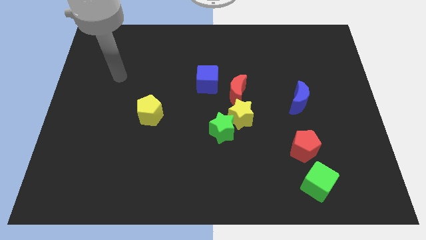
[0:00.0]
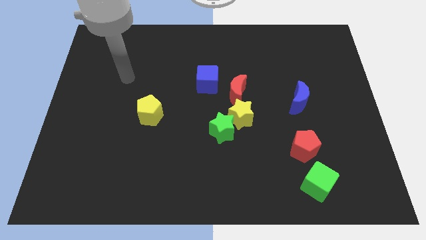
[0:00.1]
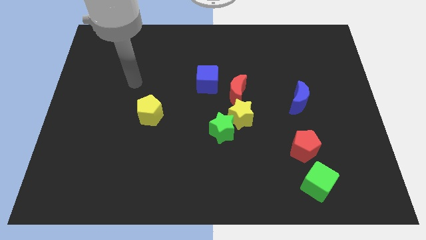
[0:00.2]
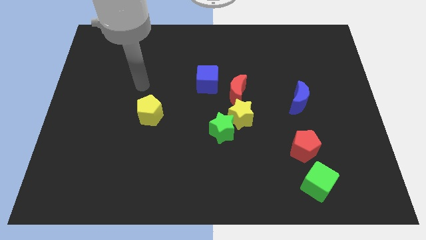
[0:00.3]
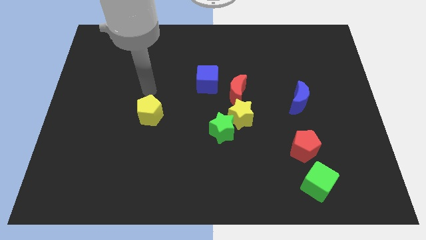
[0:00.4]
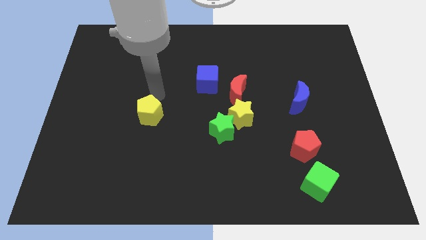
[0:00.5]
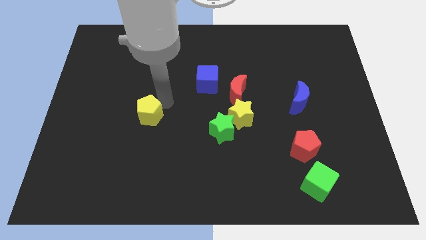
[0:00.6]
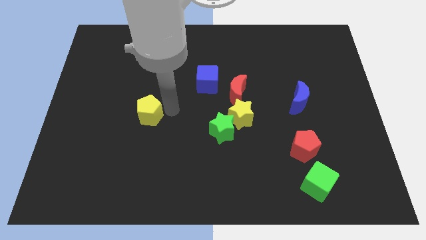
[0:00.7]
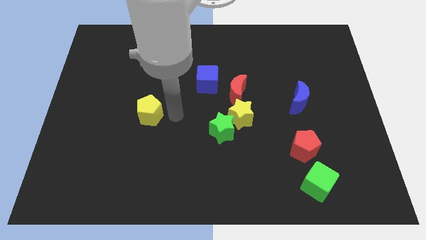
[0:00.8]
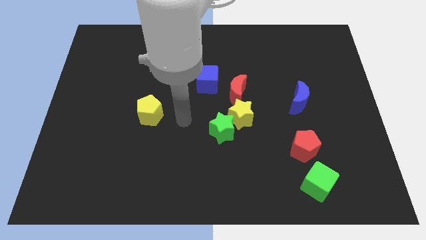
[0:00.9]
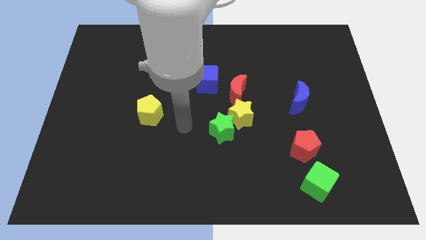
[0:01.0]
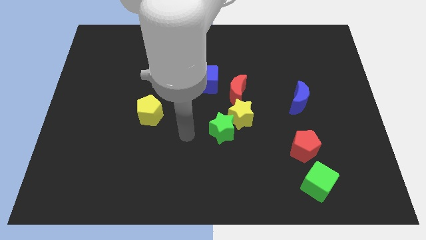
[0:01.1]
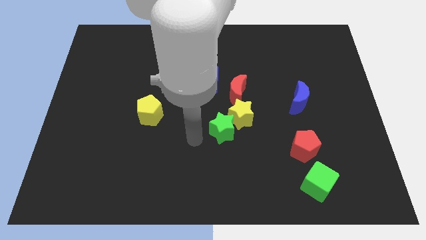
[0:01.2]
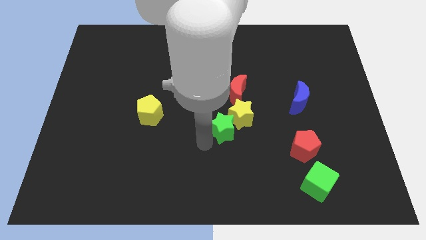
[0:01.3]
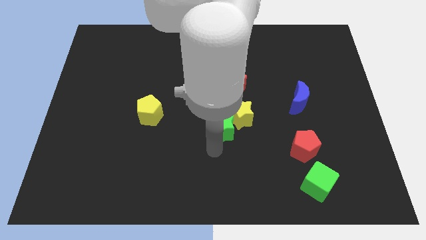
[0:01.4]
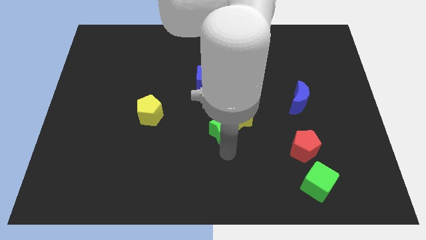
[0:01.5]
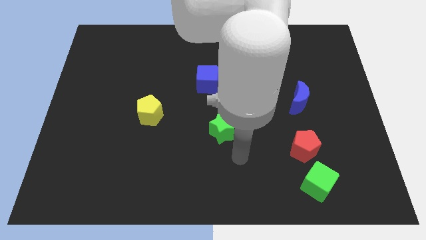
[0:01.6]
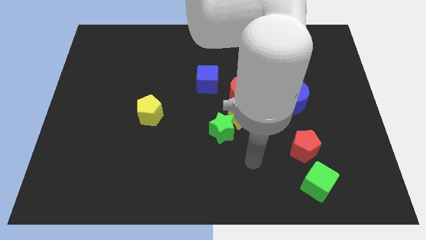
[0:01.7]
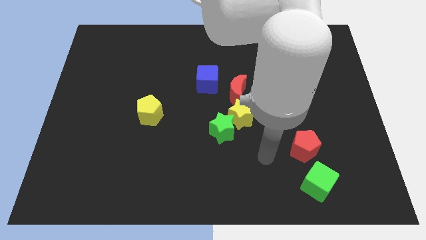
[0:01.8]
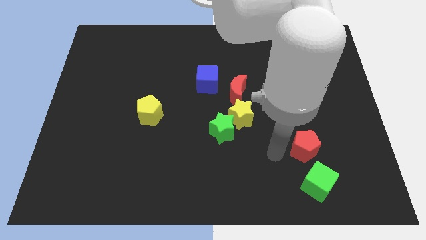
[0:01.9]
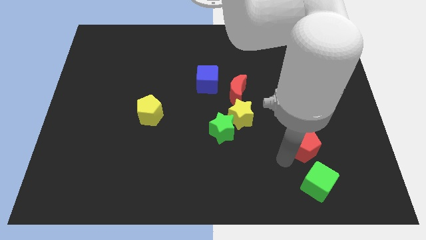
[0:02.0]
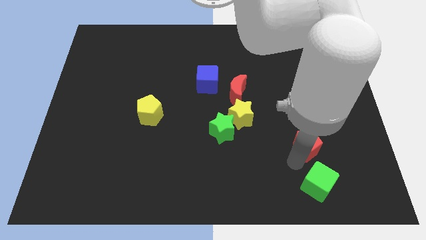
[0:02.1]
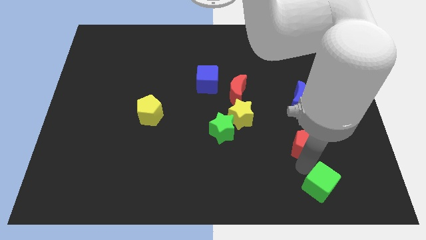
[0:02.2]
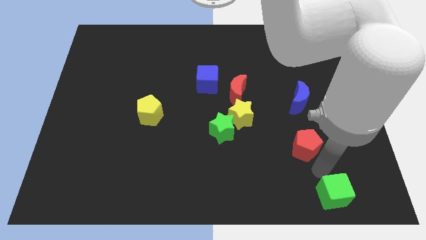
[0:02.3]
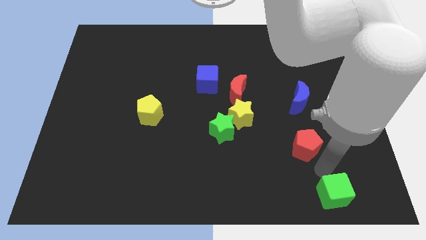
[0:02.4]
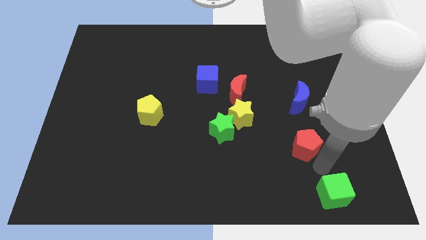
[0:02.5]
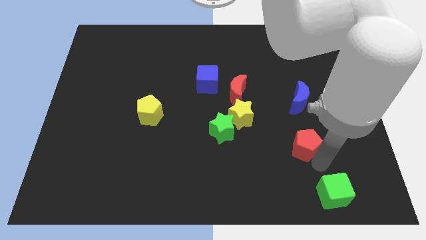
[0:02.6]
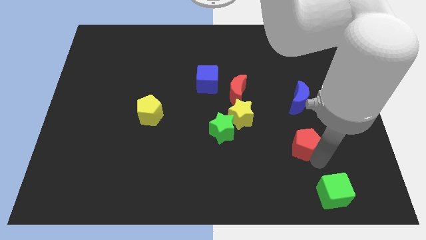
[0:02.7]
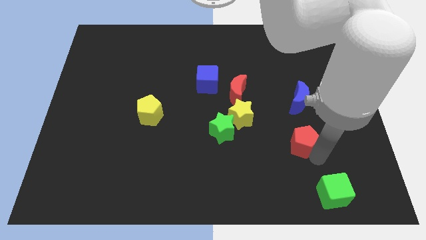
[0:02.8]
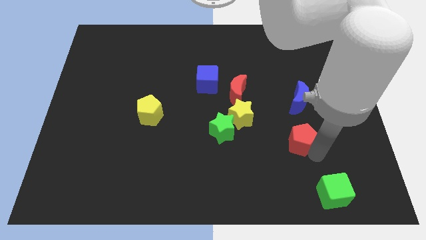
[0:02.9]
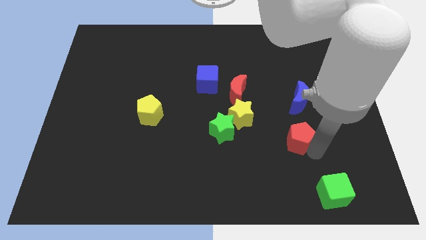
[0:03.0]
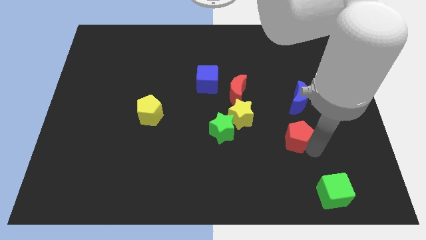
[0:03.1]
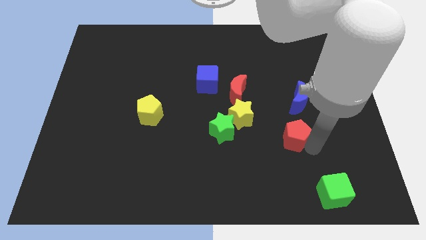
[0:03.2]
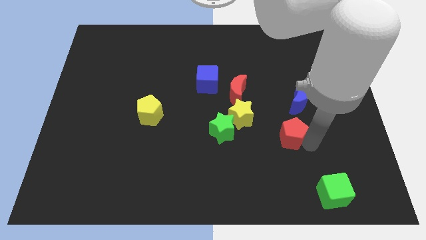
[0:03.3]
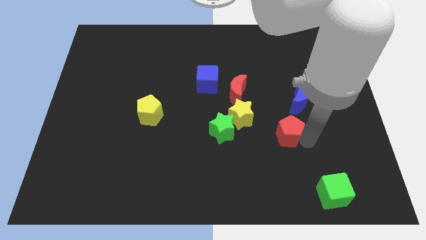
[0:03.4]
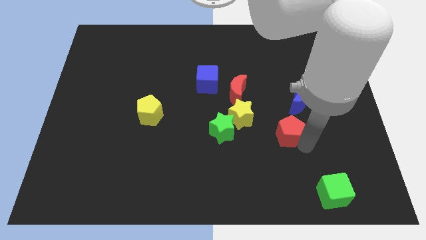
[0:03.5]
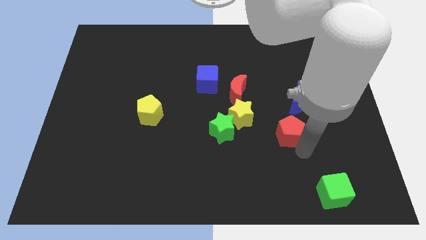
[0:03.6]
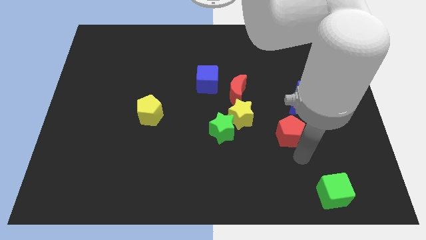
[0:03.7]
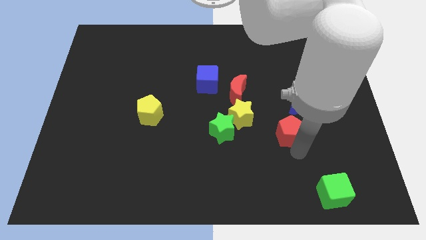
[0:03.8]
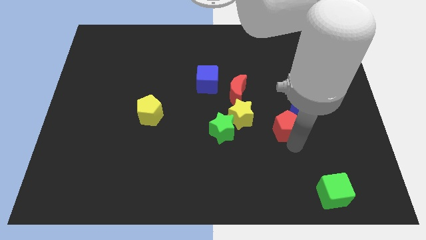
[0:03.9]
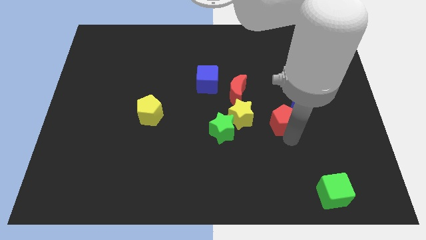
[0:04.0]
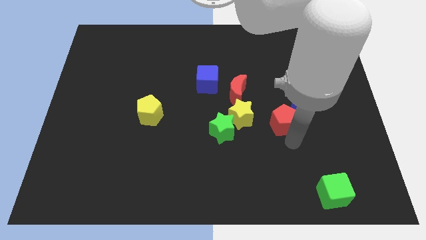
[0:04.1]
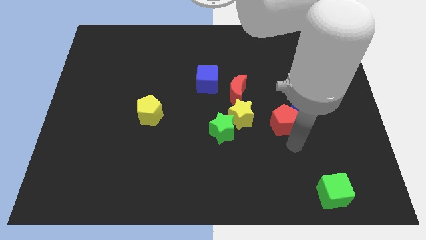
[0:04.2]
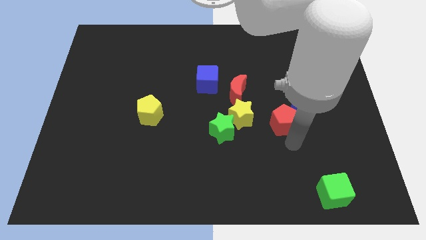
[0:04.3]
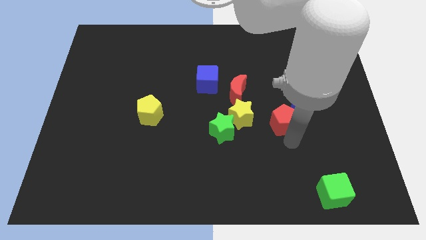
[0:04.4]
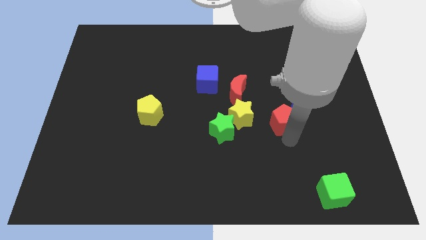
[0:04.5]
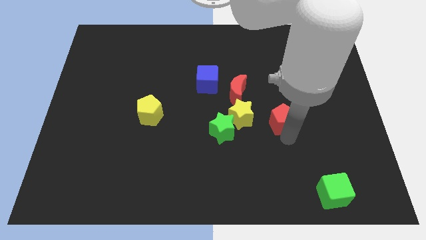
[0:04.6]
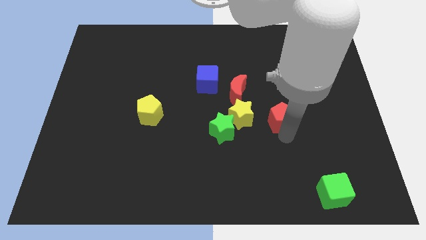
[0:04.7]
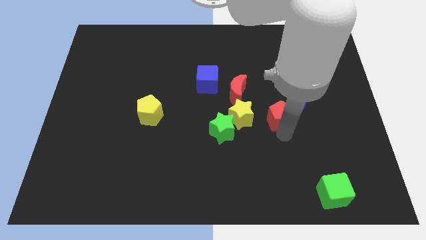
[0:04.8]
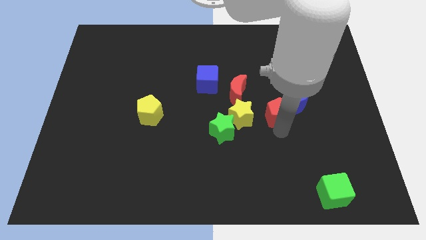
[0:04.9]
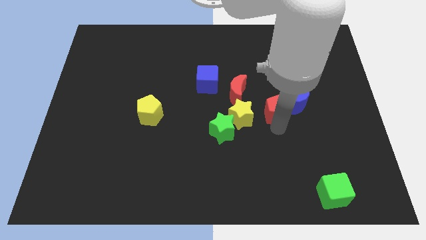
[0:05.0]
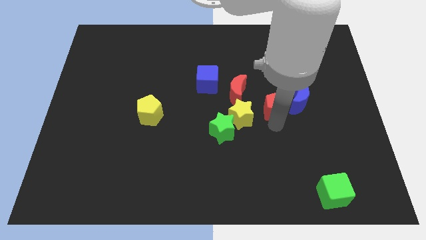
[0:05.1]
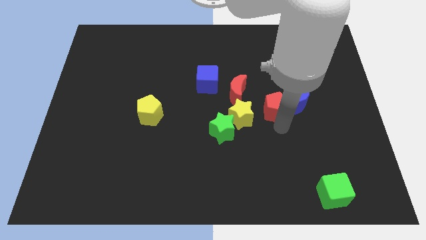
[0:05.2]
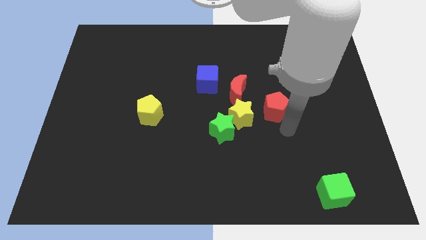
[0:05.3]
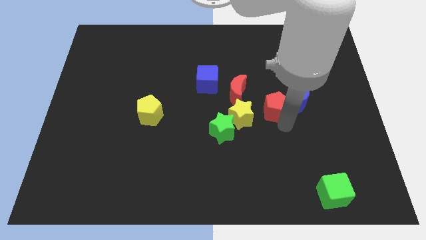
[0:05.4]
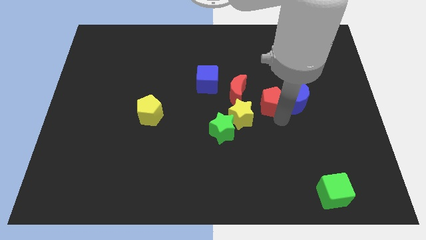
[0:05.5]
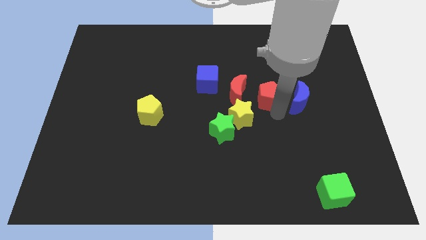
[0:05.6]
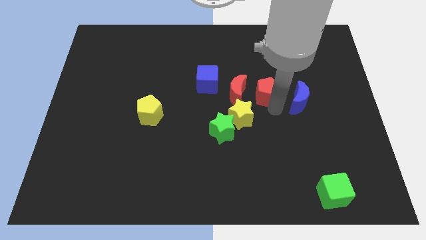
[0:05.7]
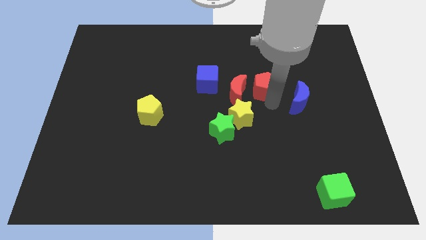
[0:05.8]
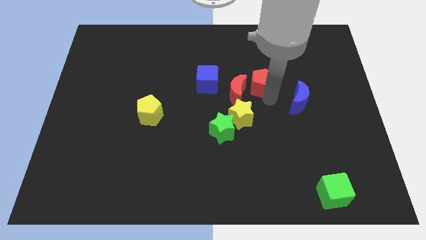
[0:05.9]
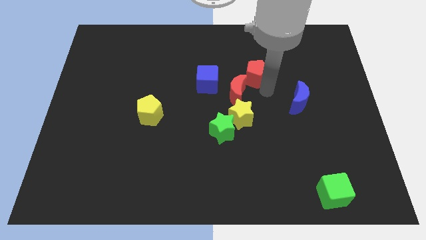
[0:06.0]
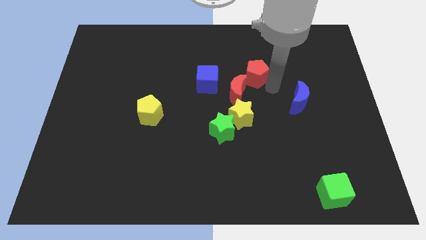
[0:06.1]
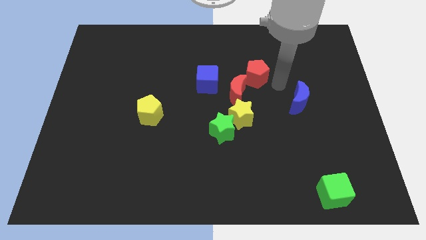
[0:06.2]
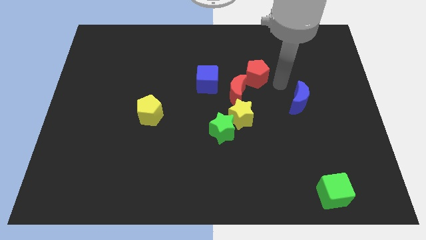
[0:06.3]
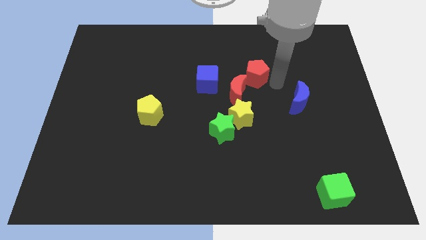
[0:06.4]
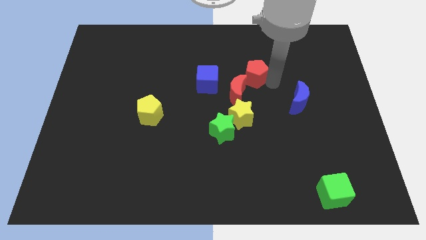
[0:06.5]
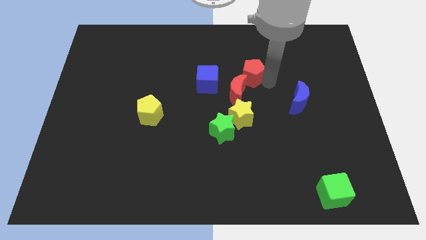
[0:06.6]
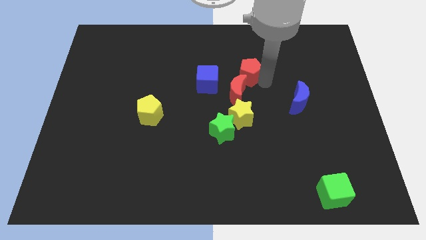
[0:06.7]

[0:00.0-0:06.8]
move the red pentagon diagonally upwards and left

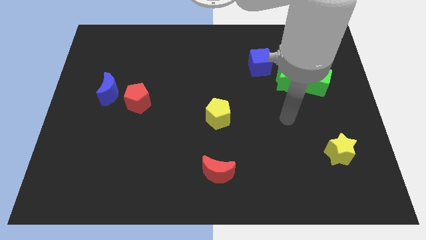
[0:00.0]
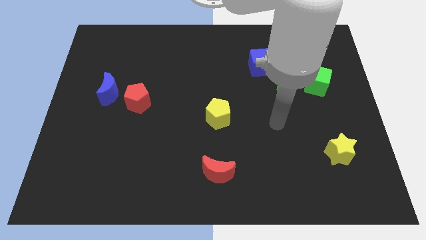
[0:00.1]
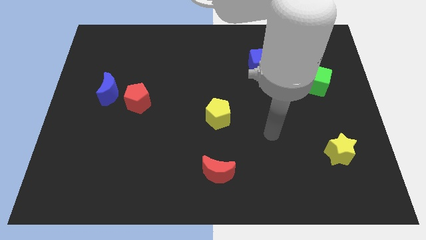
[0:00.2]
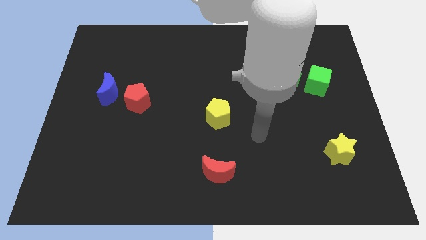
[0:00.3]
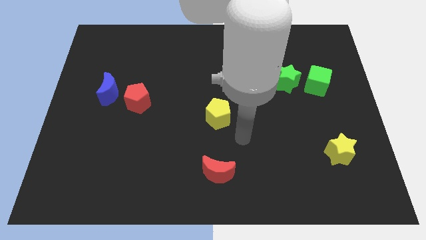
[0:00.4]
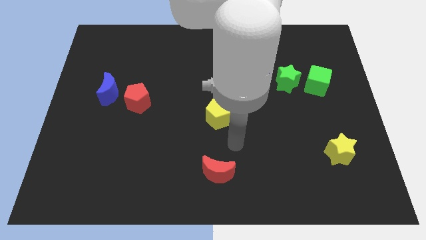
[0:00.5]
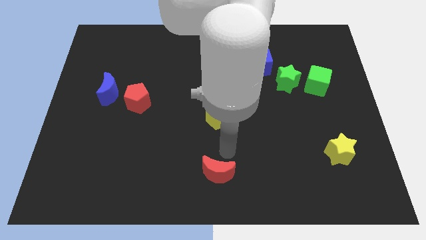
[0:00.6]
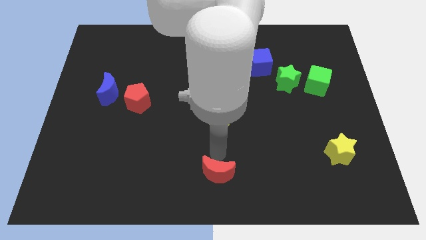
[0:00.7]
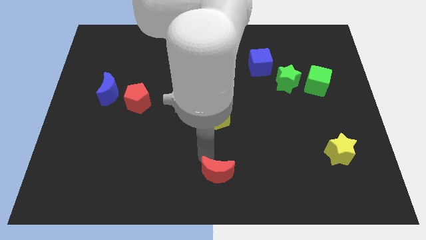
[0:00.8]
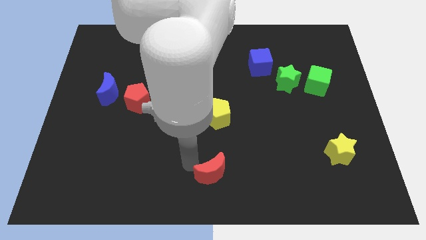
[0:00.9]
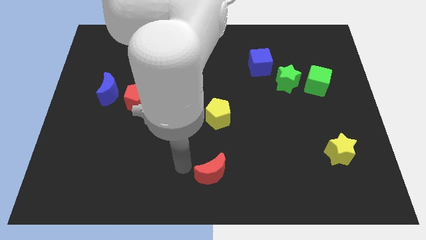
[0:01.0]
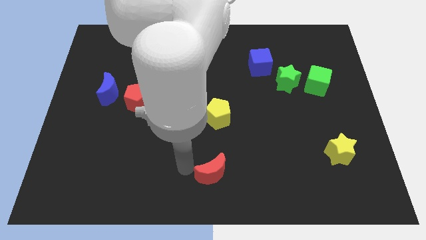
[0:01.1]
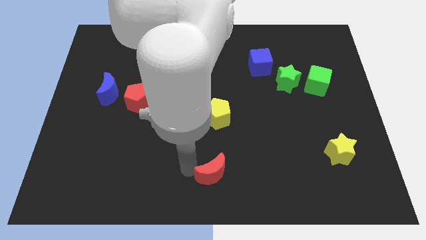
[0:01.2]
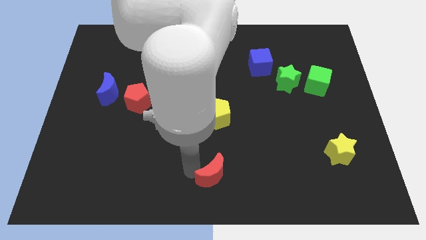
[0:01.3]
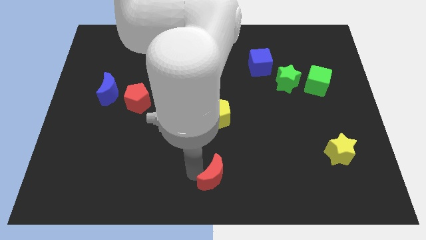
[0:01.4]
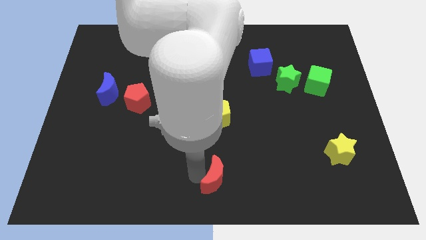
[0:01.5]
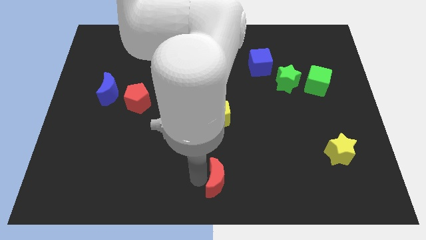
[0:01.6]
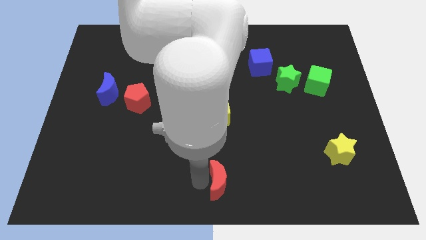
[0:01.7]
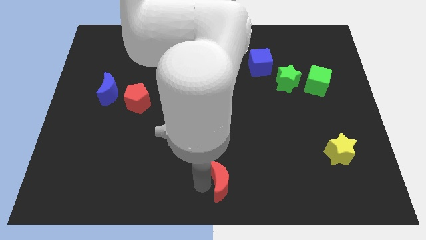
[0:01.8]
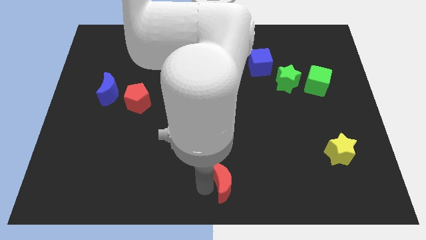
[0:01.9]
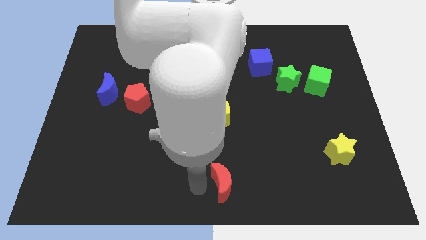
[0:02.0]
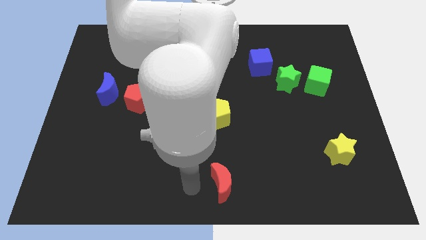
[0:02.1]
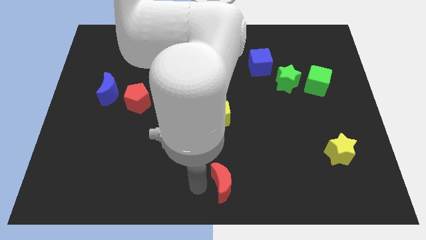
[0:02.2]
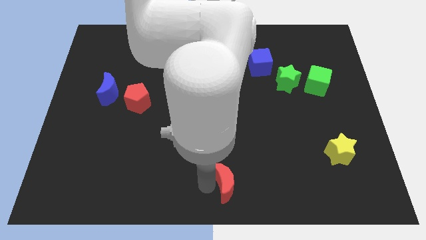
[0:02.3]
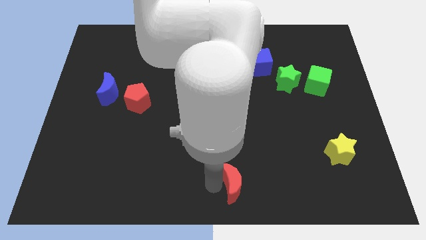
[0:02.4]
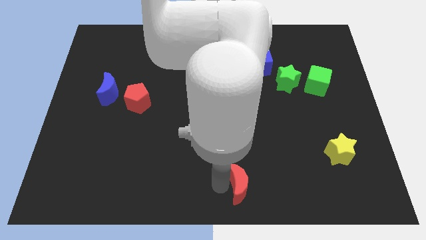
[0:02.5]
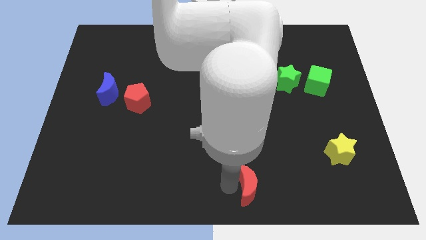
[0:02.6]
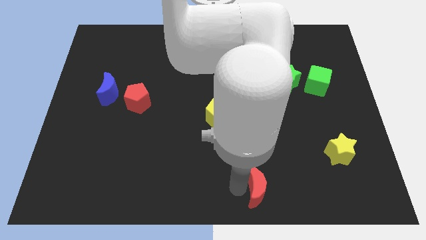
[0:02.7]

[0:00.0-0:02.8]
push the red moon a little right
